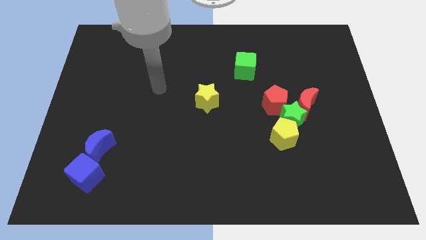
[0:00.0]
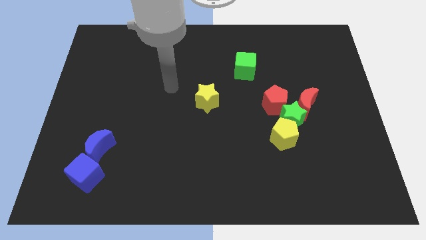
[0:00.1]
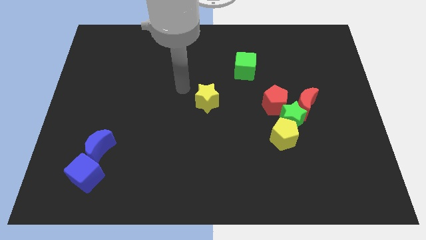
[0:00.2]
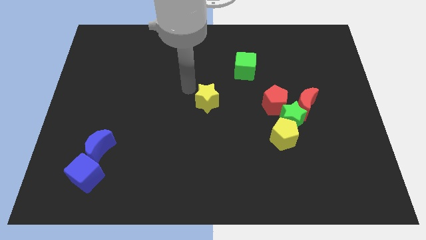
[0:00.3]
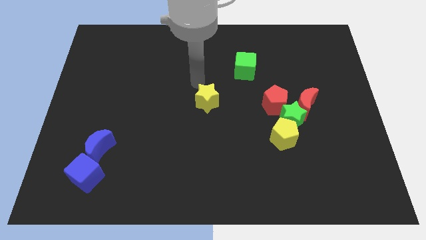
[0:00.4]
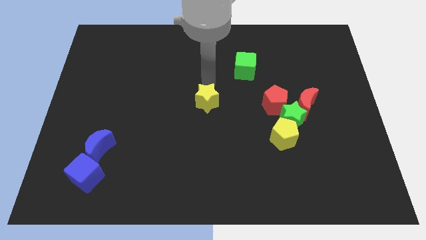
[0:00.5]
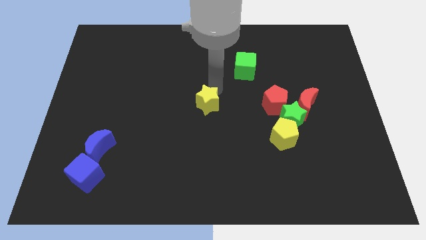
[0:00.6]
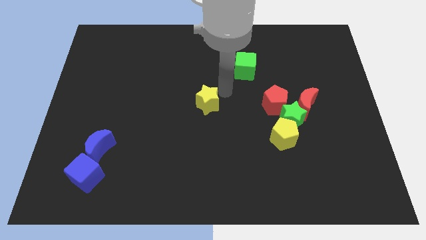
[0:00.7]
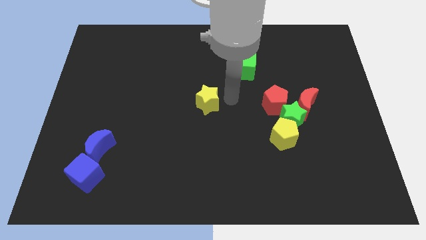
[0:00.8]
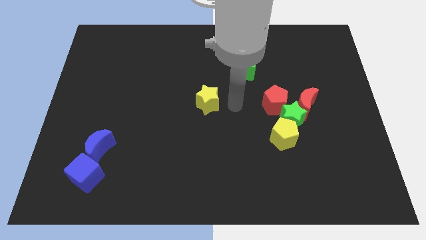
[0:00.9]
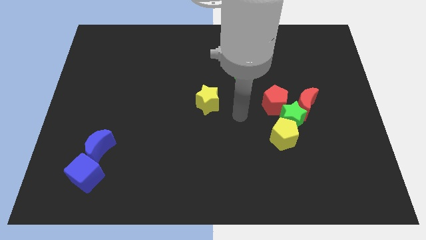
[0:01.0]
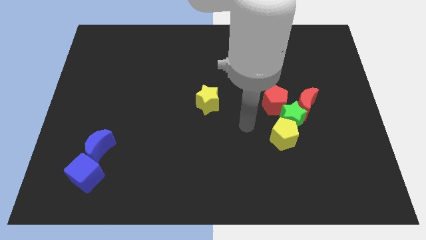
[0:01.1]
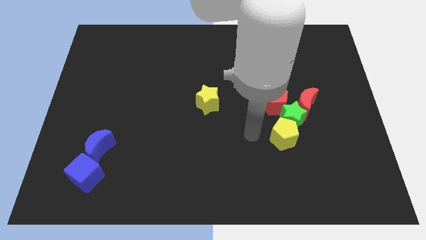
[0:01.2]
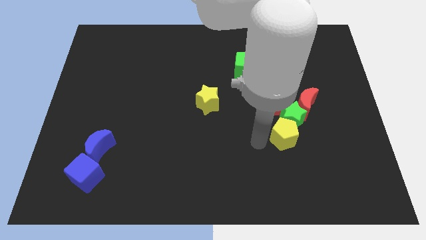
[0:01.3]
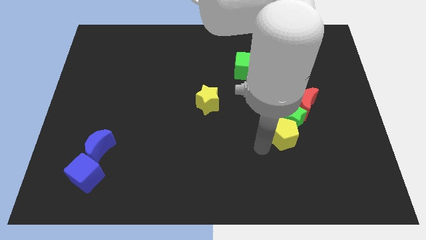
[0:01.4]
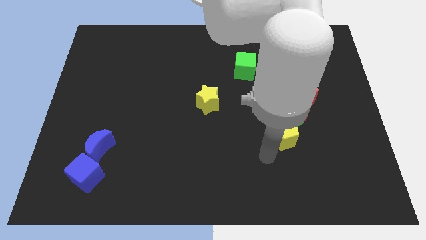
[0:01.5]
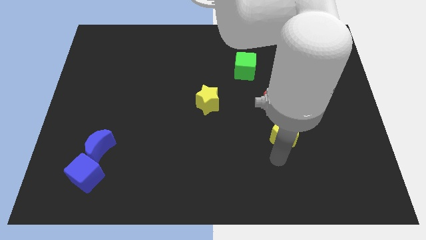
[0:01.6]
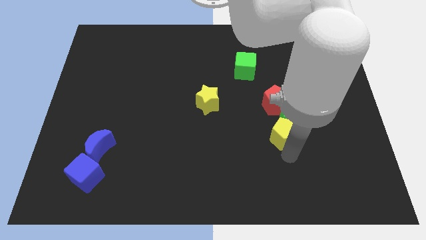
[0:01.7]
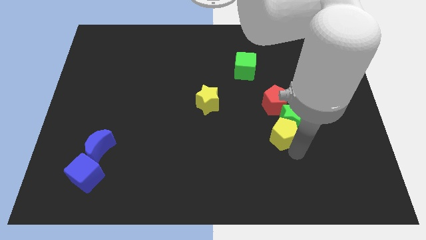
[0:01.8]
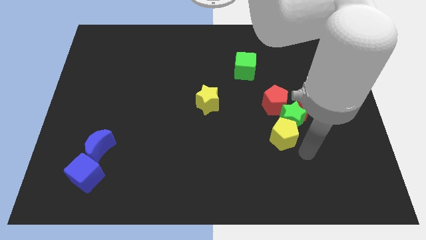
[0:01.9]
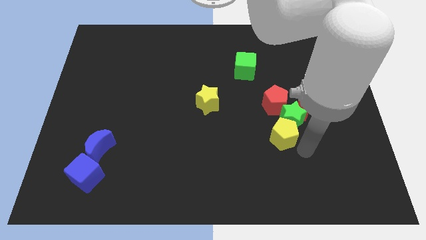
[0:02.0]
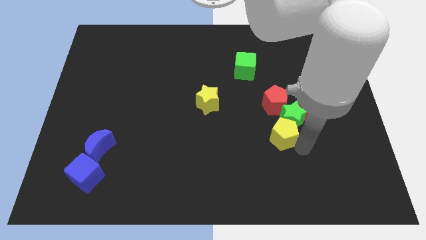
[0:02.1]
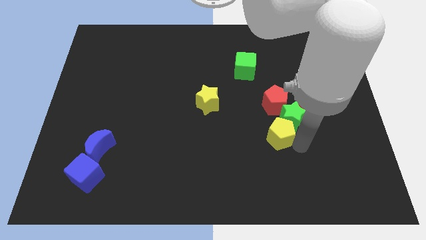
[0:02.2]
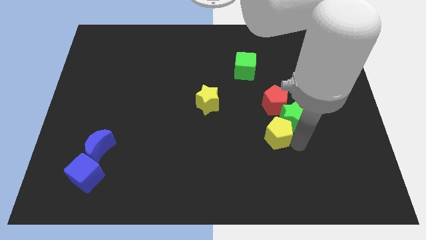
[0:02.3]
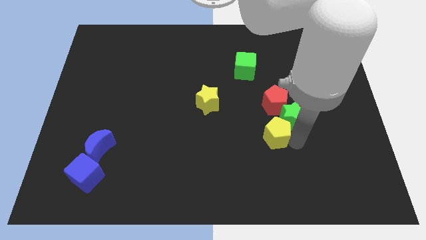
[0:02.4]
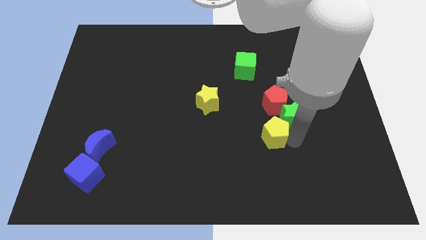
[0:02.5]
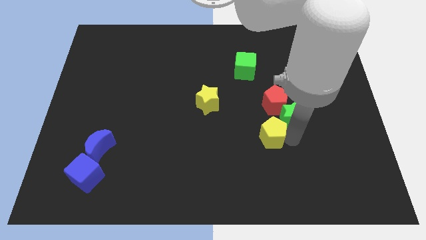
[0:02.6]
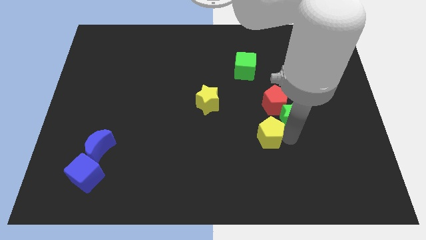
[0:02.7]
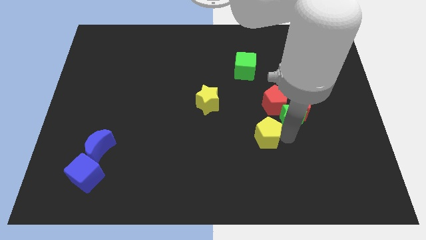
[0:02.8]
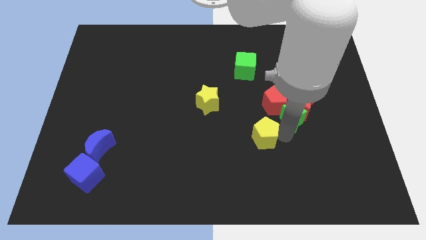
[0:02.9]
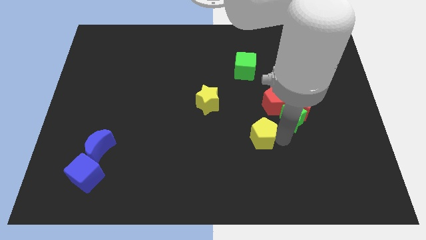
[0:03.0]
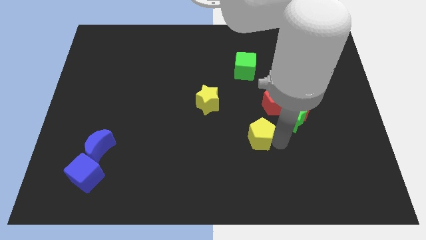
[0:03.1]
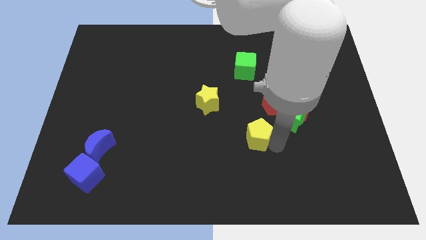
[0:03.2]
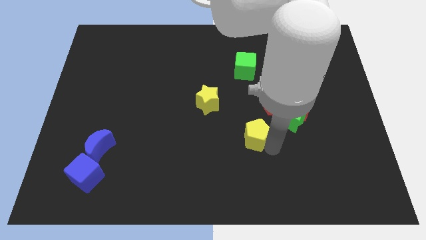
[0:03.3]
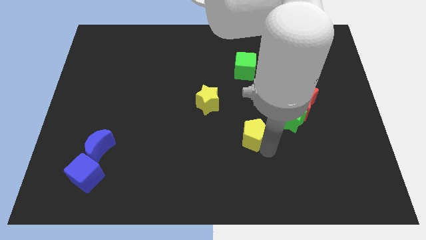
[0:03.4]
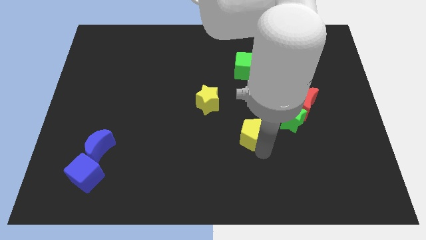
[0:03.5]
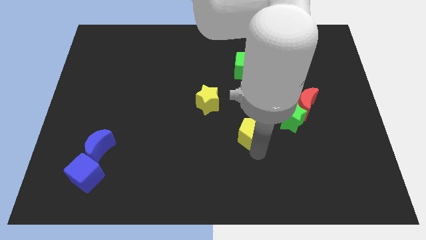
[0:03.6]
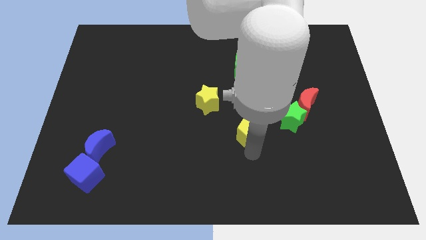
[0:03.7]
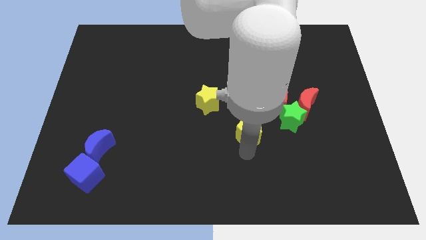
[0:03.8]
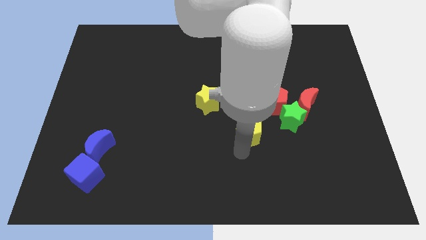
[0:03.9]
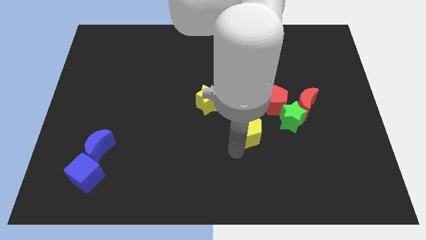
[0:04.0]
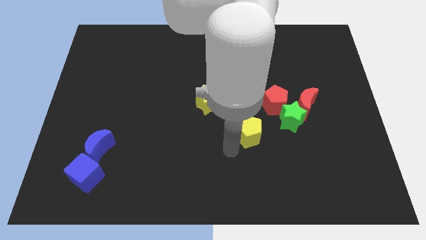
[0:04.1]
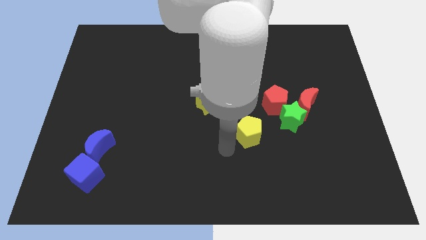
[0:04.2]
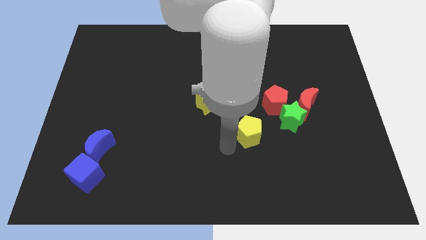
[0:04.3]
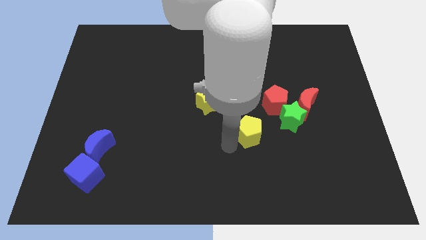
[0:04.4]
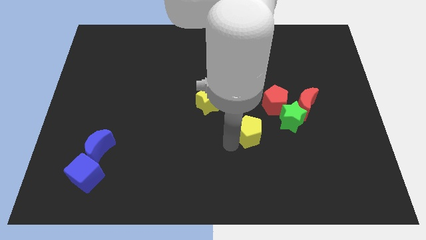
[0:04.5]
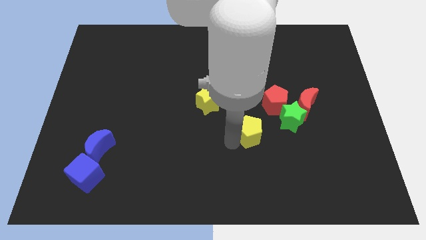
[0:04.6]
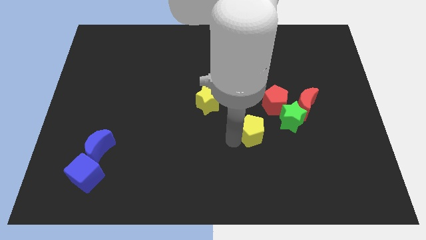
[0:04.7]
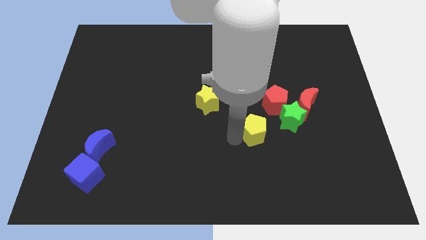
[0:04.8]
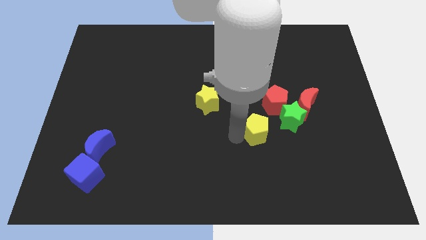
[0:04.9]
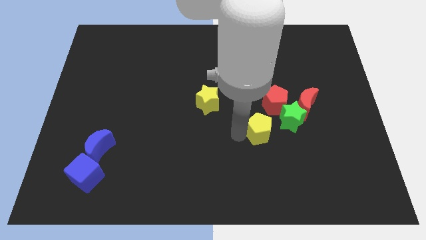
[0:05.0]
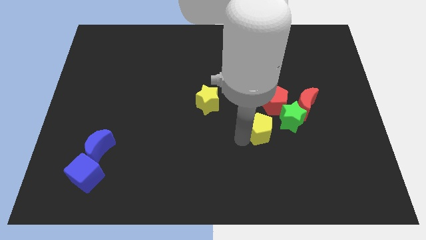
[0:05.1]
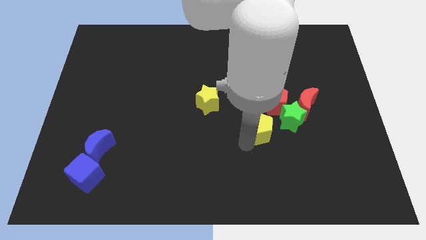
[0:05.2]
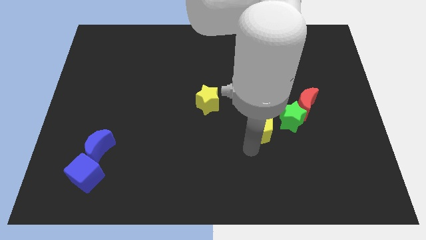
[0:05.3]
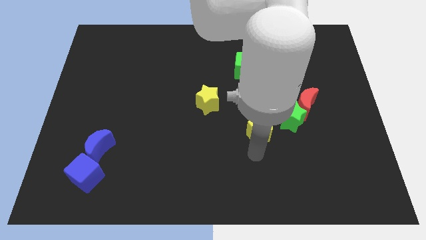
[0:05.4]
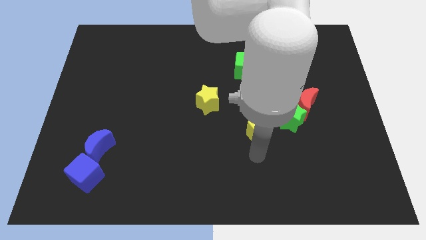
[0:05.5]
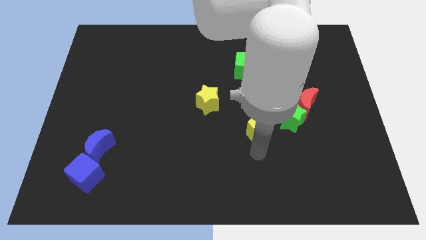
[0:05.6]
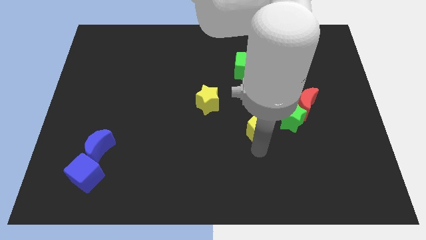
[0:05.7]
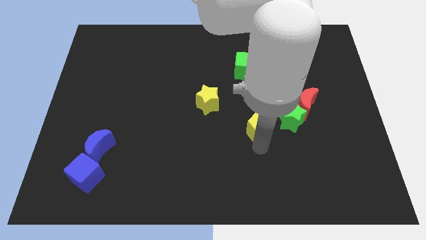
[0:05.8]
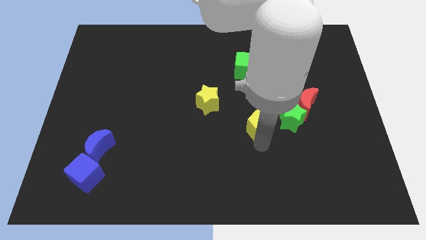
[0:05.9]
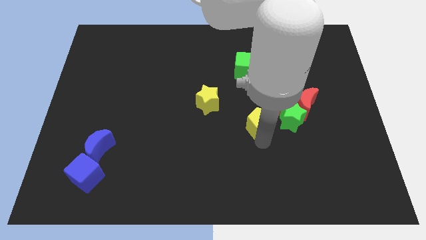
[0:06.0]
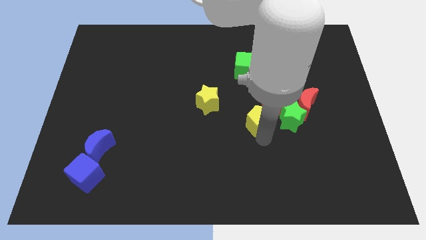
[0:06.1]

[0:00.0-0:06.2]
move the yellow pentagon to the left of the red moon

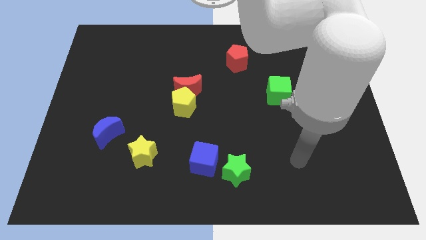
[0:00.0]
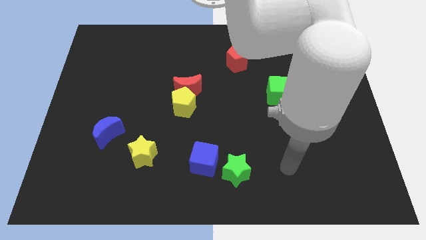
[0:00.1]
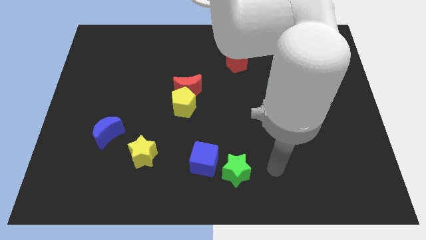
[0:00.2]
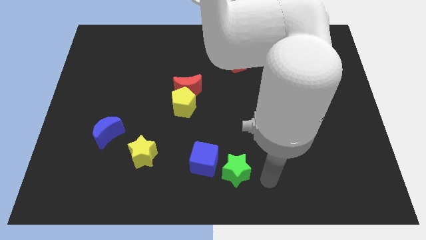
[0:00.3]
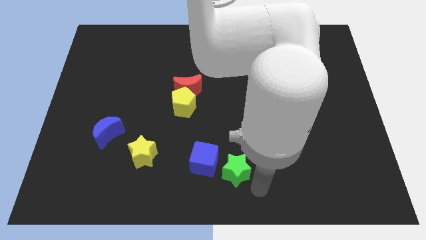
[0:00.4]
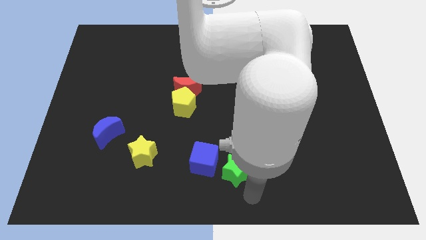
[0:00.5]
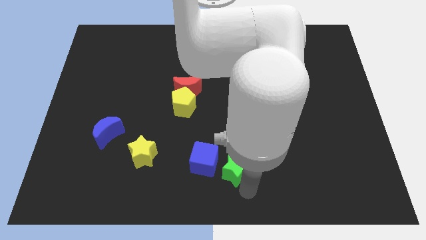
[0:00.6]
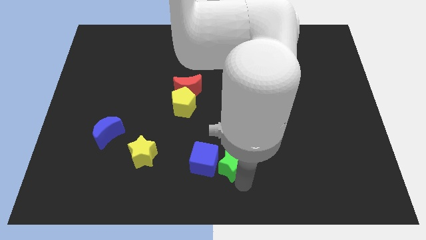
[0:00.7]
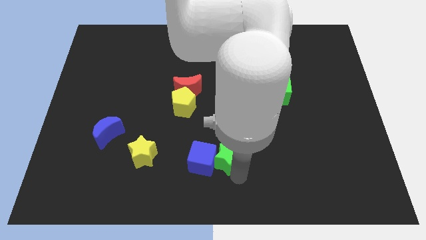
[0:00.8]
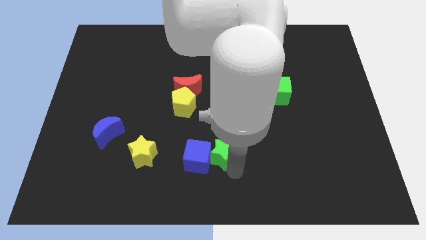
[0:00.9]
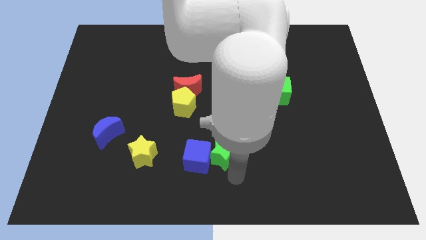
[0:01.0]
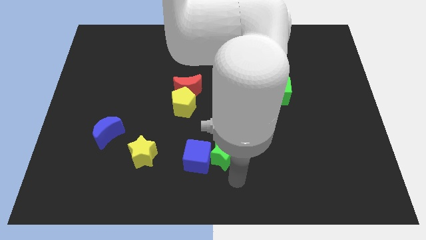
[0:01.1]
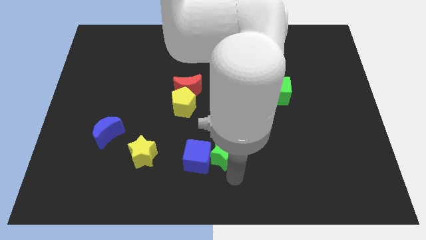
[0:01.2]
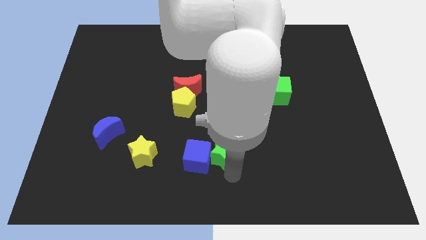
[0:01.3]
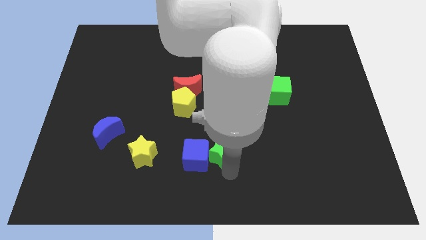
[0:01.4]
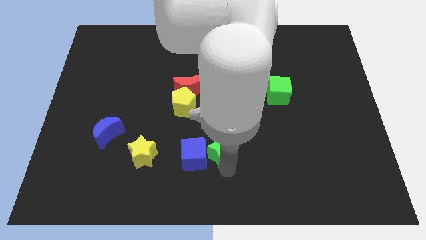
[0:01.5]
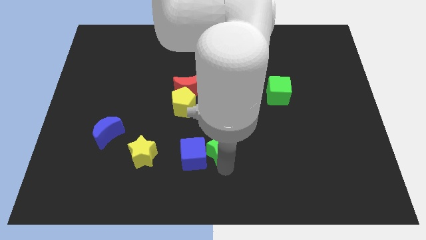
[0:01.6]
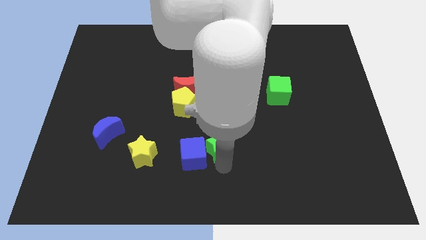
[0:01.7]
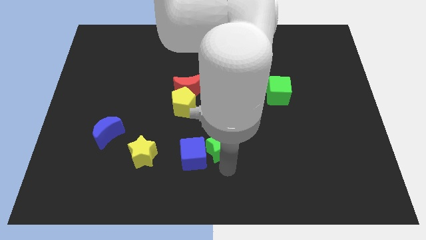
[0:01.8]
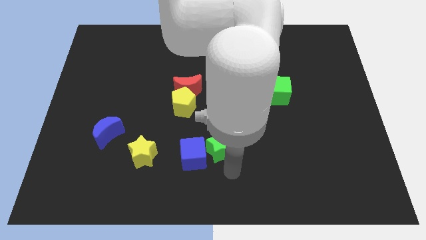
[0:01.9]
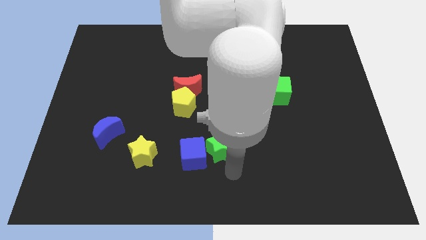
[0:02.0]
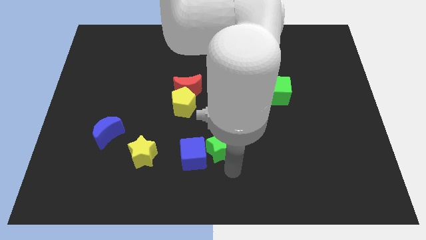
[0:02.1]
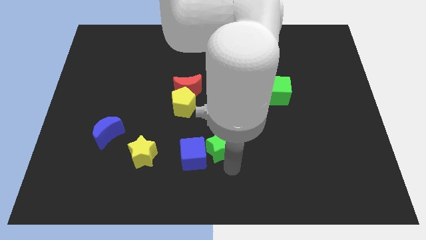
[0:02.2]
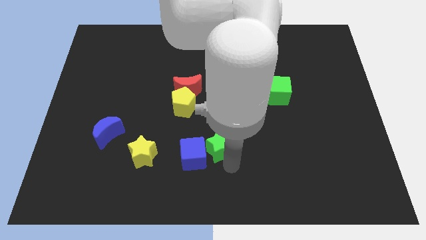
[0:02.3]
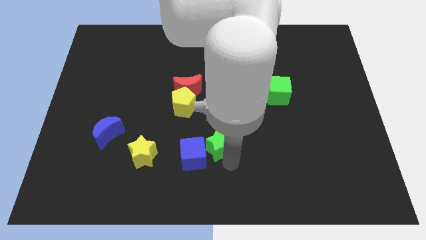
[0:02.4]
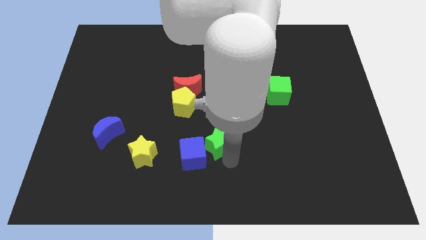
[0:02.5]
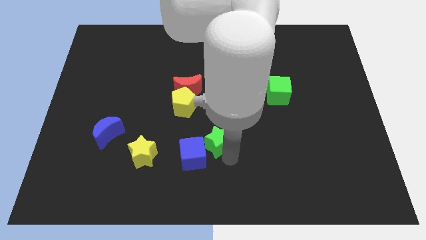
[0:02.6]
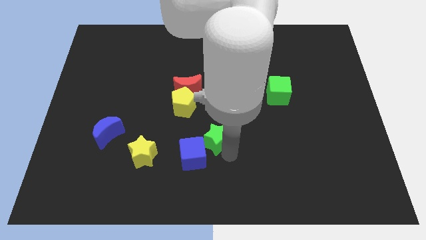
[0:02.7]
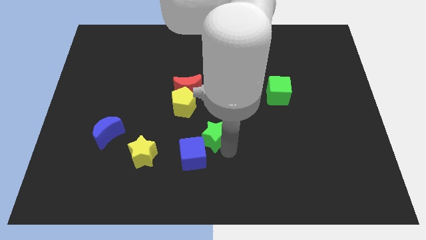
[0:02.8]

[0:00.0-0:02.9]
move the green star to the top of the blue cube
